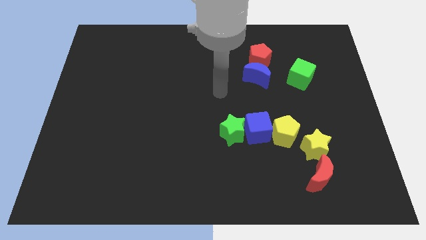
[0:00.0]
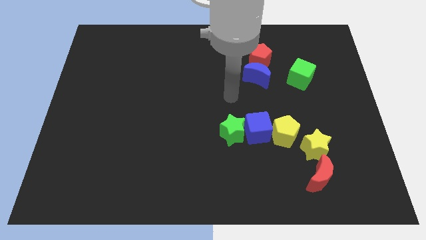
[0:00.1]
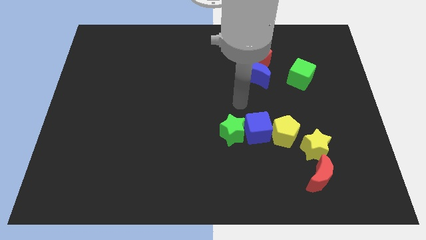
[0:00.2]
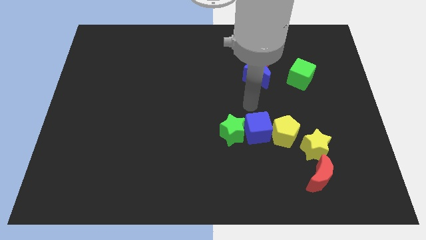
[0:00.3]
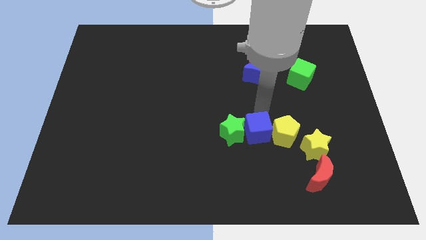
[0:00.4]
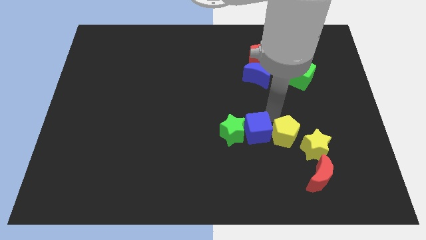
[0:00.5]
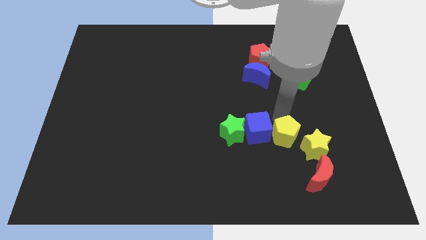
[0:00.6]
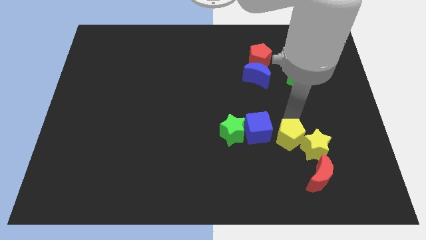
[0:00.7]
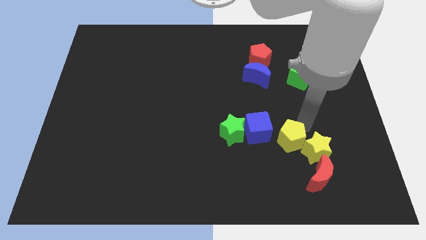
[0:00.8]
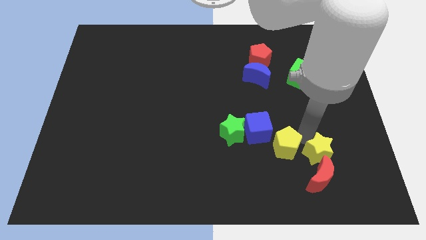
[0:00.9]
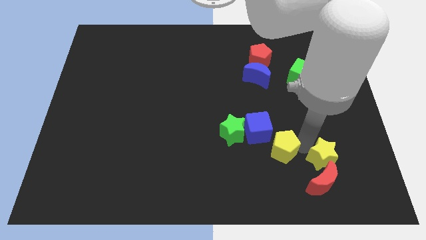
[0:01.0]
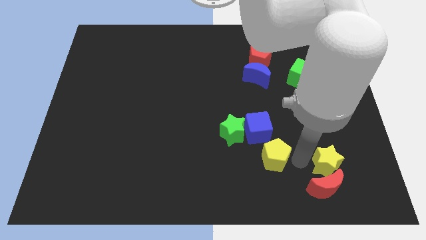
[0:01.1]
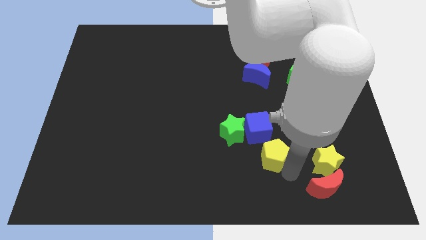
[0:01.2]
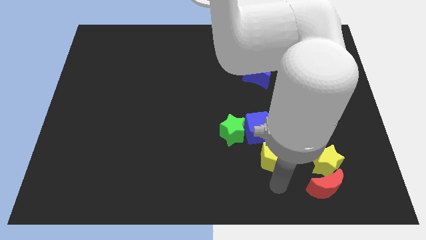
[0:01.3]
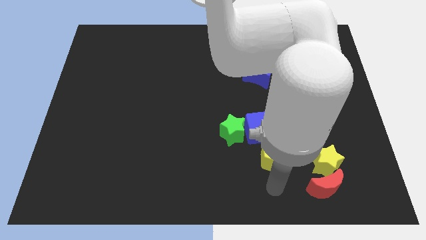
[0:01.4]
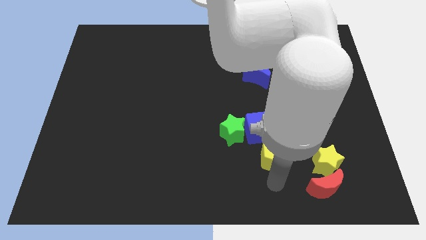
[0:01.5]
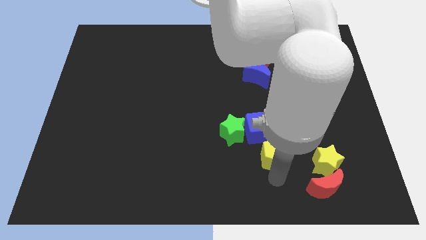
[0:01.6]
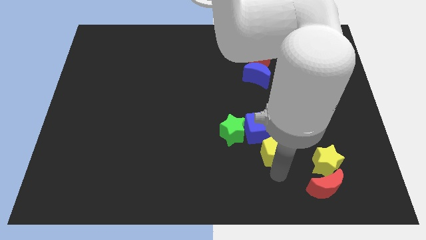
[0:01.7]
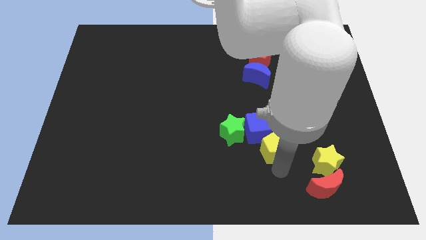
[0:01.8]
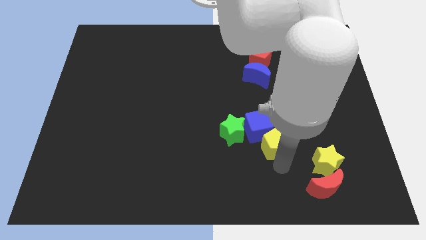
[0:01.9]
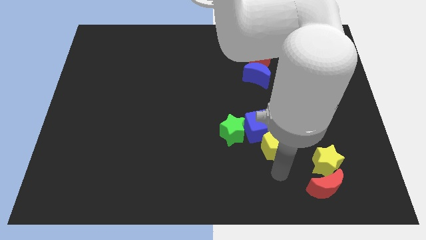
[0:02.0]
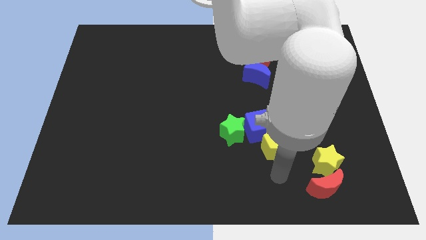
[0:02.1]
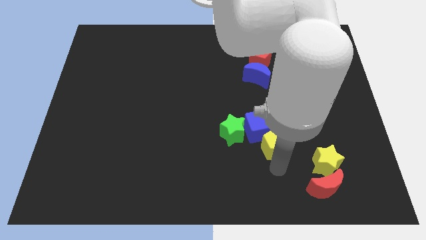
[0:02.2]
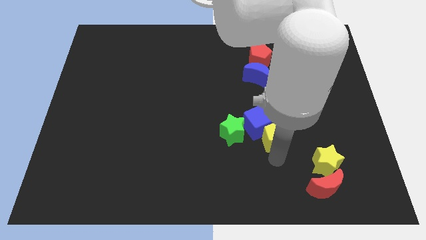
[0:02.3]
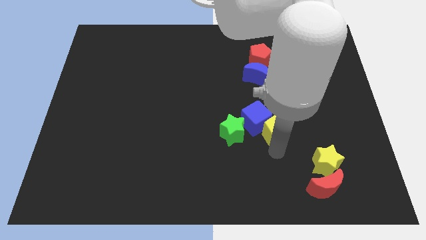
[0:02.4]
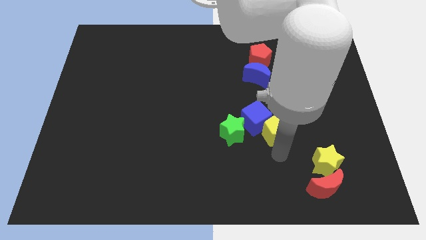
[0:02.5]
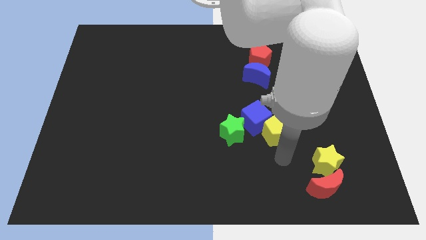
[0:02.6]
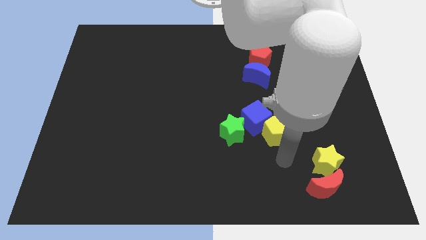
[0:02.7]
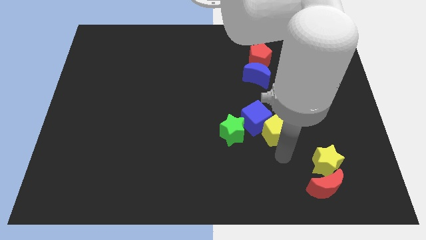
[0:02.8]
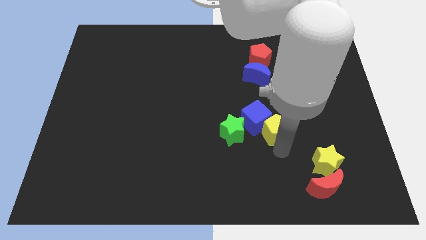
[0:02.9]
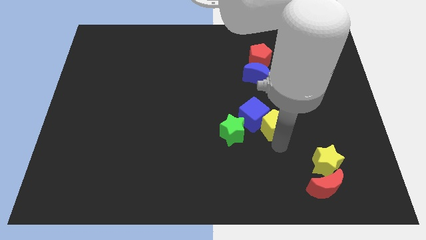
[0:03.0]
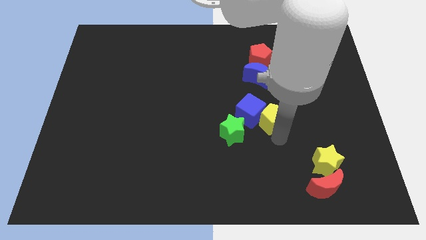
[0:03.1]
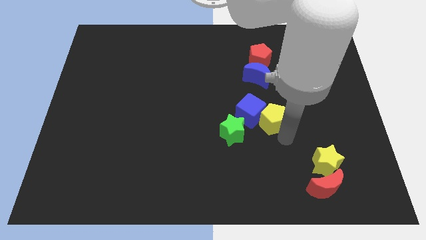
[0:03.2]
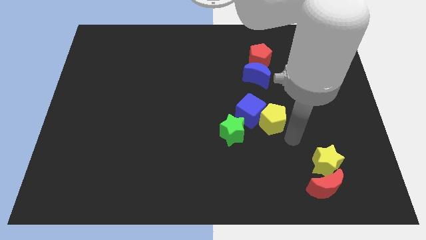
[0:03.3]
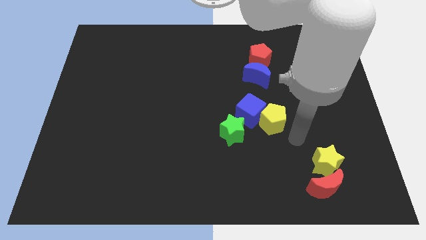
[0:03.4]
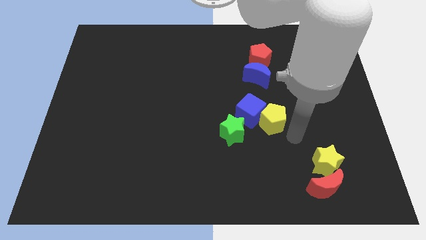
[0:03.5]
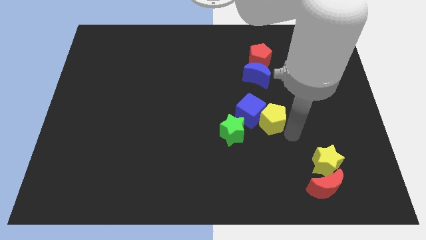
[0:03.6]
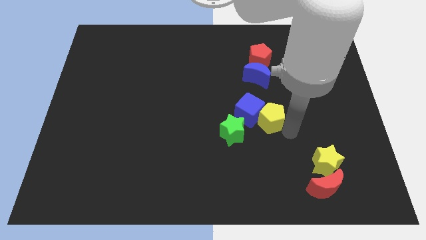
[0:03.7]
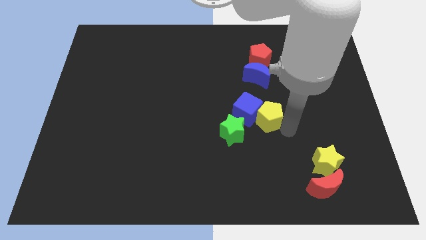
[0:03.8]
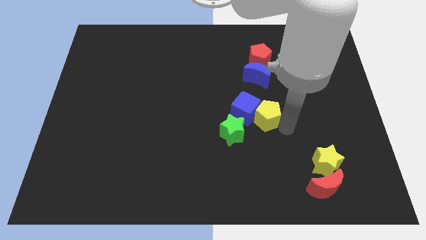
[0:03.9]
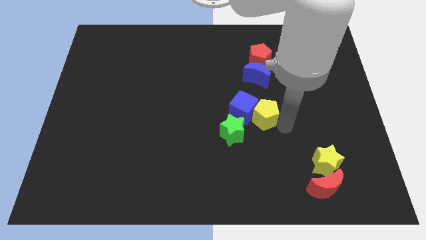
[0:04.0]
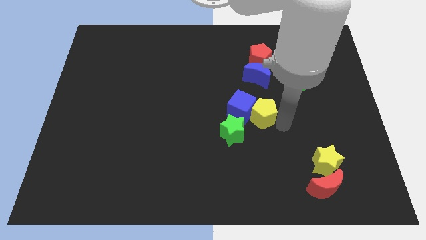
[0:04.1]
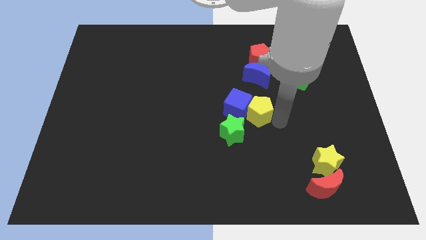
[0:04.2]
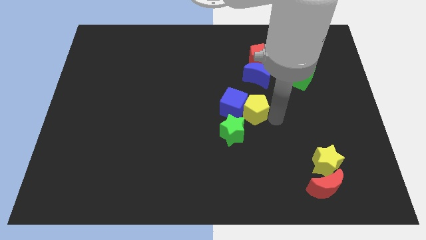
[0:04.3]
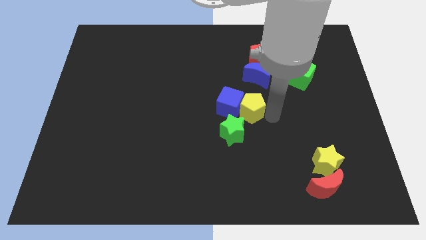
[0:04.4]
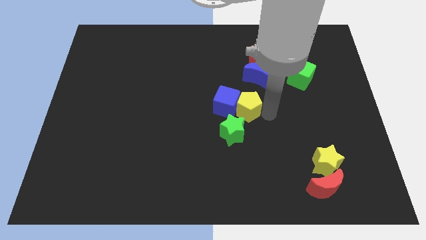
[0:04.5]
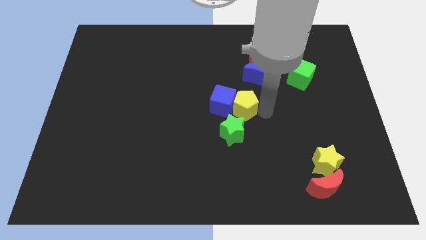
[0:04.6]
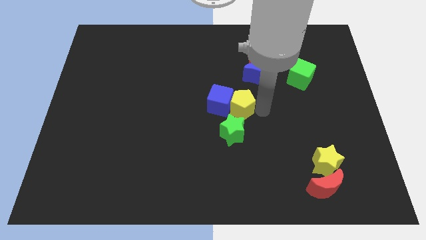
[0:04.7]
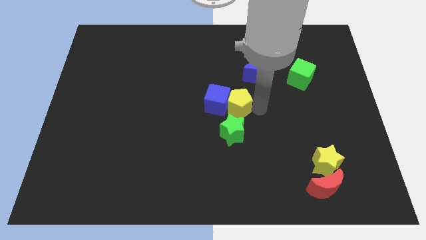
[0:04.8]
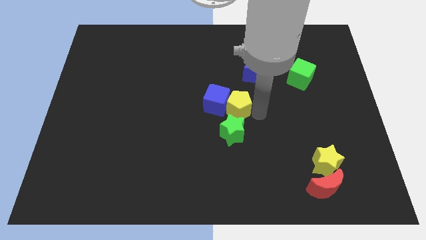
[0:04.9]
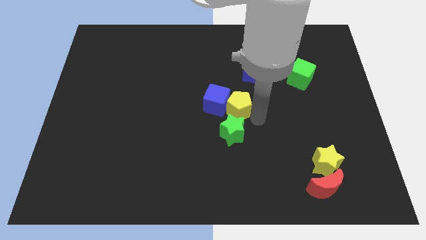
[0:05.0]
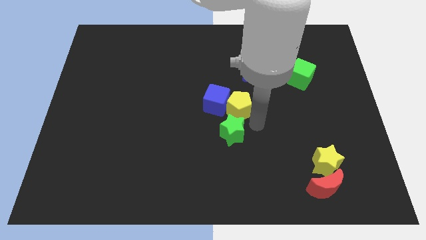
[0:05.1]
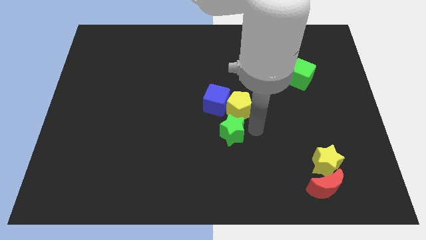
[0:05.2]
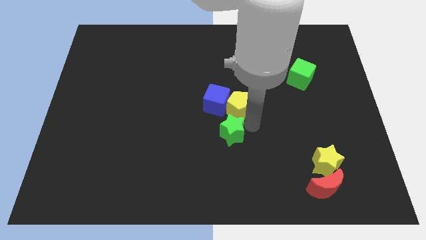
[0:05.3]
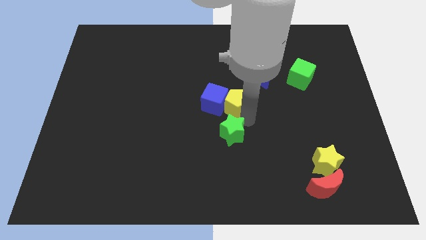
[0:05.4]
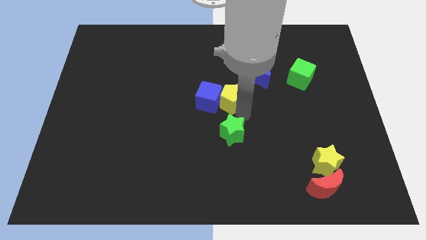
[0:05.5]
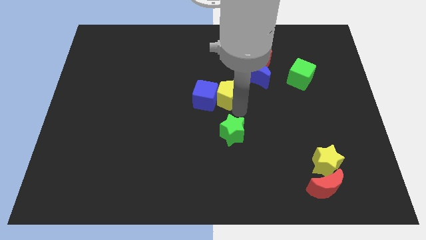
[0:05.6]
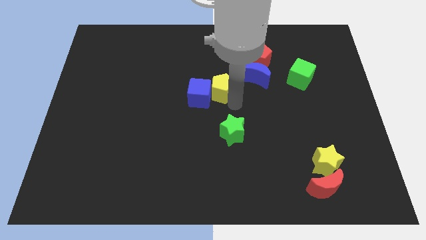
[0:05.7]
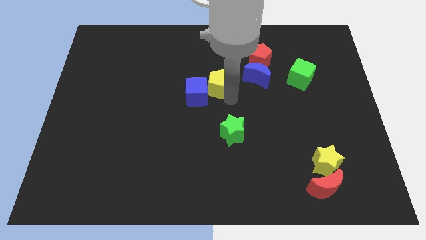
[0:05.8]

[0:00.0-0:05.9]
slide the yellow pentagon up and to the left

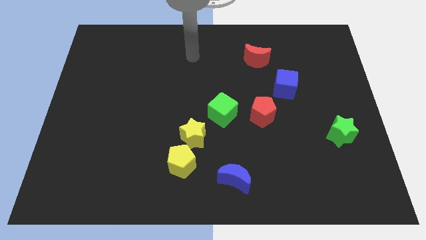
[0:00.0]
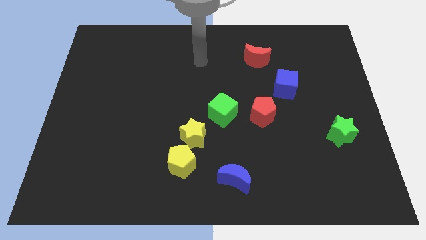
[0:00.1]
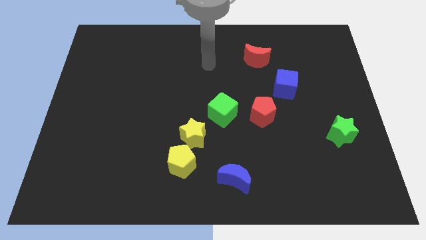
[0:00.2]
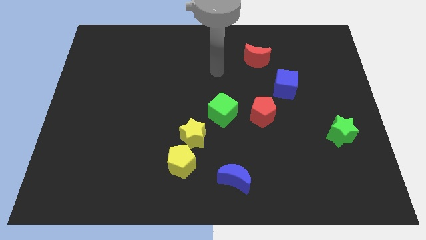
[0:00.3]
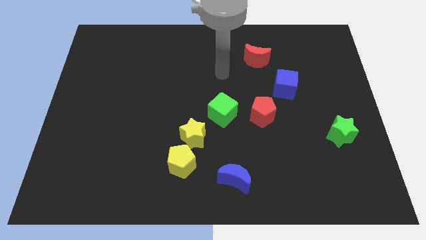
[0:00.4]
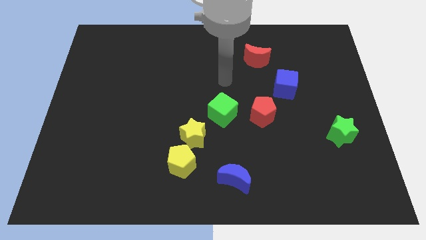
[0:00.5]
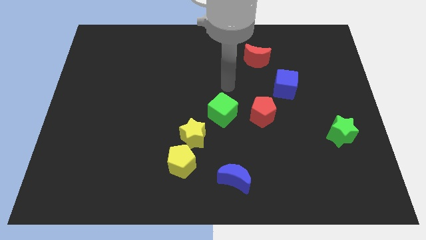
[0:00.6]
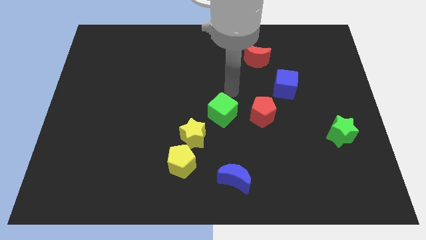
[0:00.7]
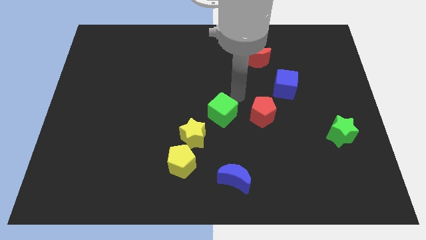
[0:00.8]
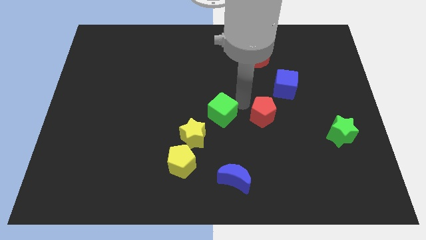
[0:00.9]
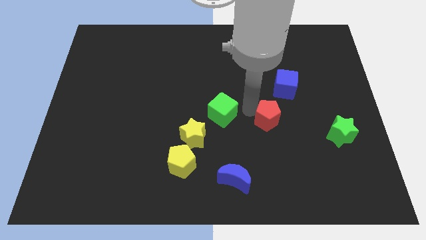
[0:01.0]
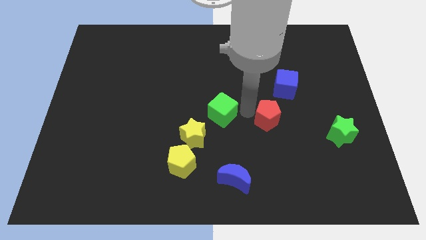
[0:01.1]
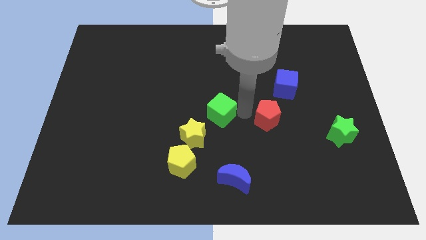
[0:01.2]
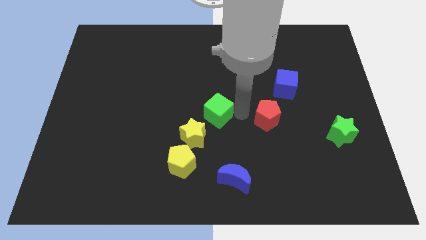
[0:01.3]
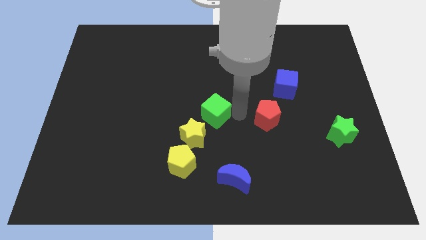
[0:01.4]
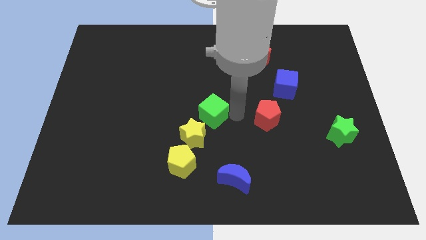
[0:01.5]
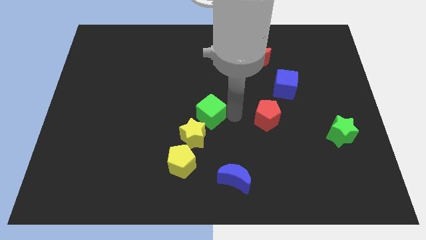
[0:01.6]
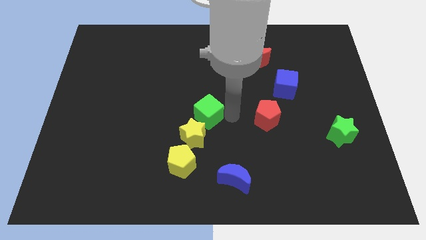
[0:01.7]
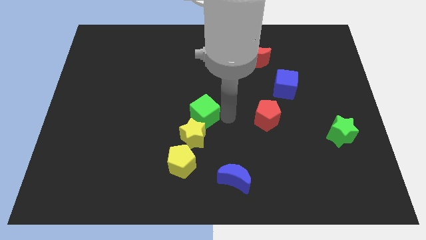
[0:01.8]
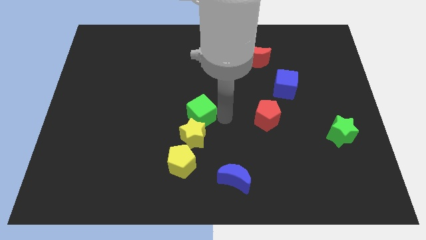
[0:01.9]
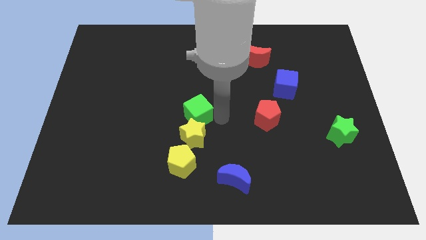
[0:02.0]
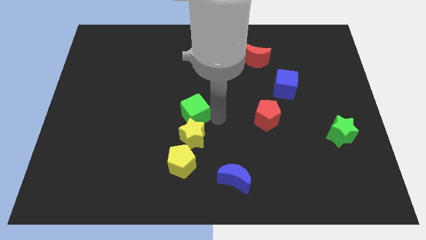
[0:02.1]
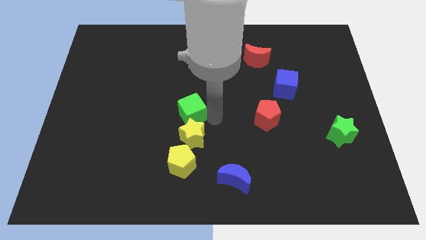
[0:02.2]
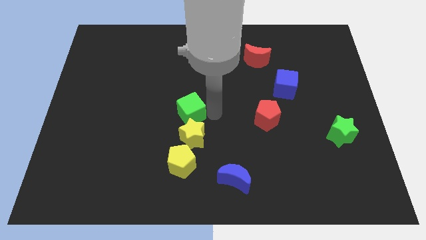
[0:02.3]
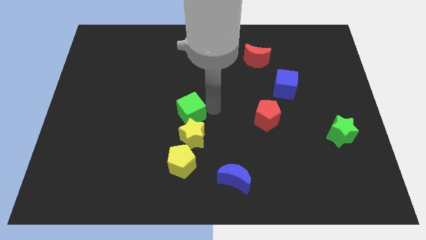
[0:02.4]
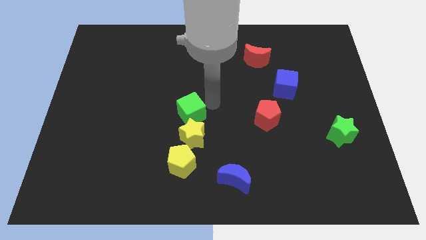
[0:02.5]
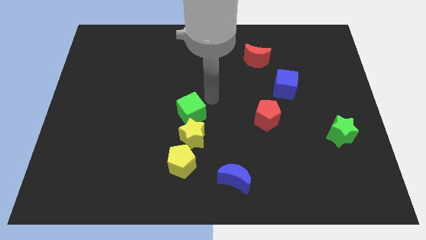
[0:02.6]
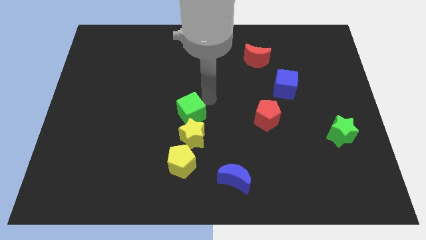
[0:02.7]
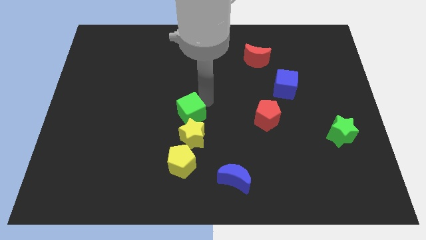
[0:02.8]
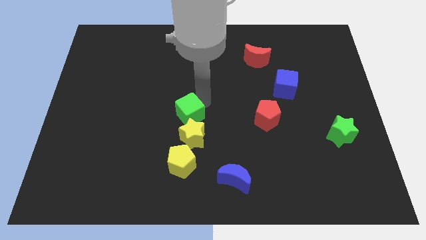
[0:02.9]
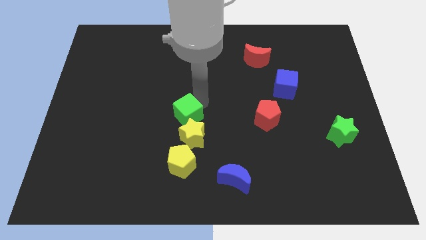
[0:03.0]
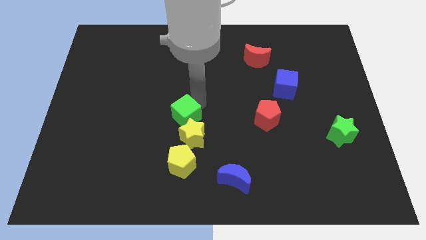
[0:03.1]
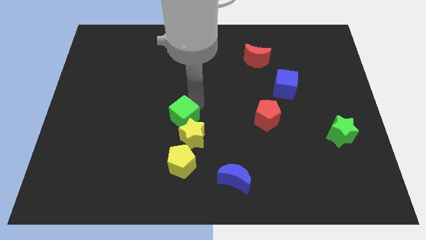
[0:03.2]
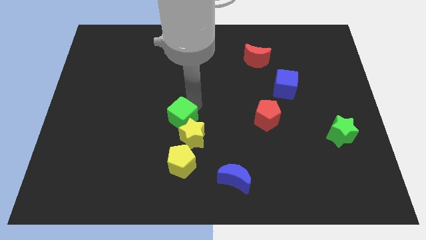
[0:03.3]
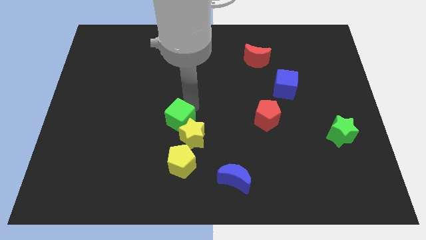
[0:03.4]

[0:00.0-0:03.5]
move the green cube down and then to the left a bit
